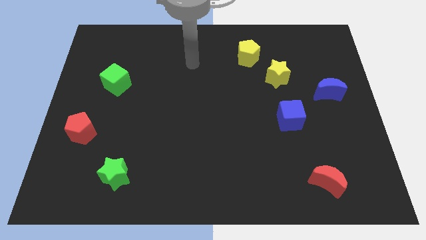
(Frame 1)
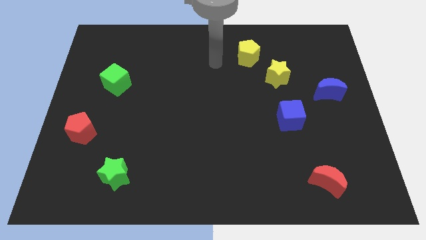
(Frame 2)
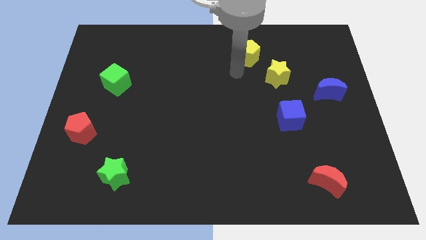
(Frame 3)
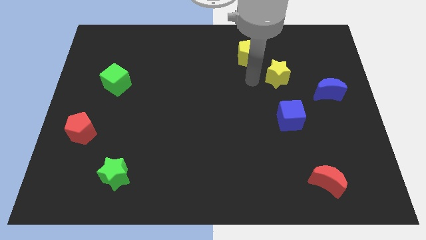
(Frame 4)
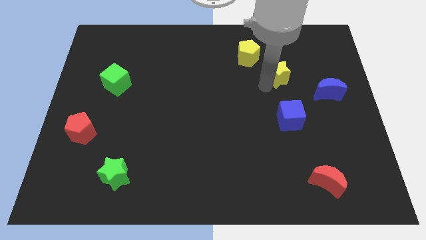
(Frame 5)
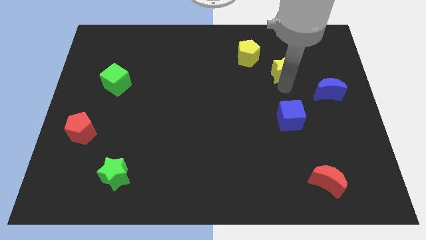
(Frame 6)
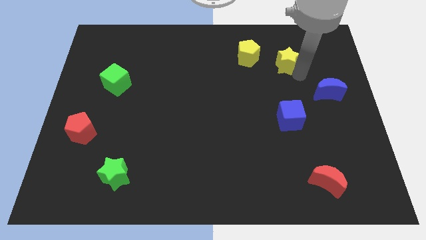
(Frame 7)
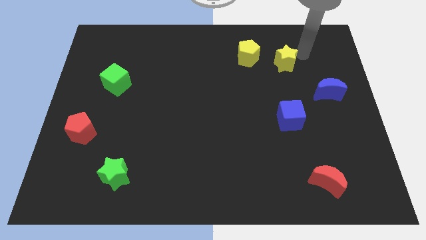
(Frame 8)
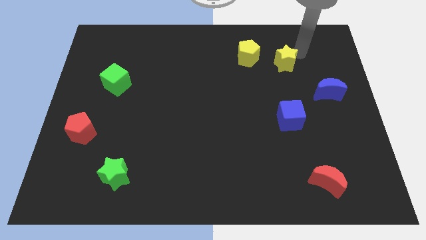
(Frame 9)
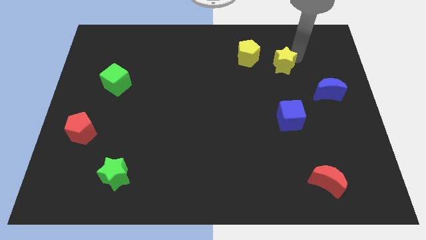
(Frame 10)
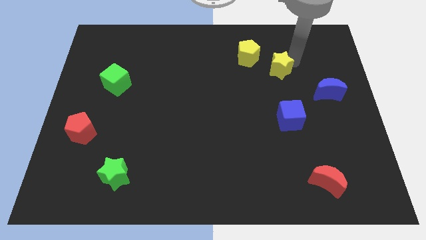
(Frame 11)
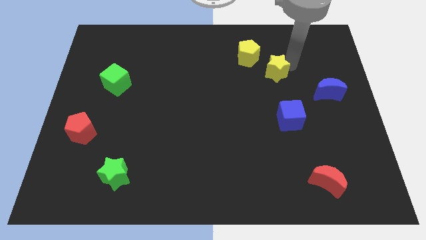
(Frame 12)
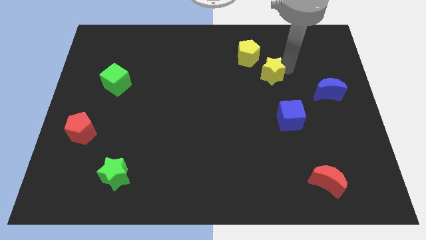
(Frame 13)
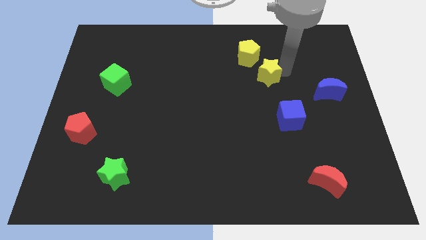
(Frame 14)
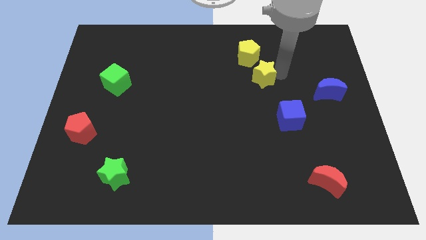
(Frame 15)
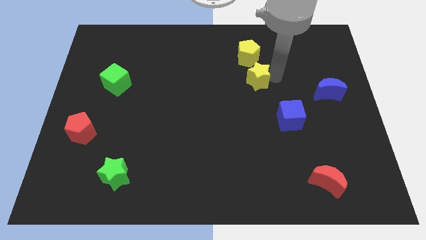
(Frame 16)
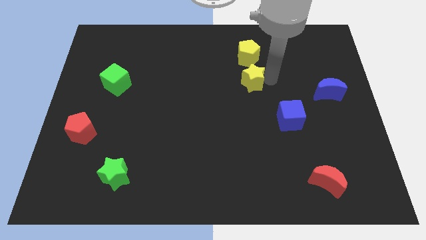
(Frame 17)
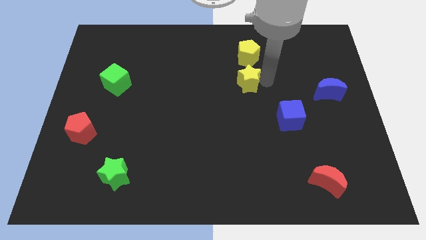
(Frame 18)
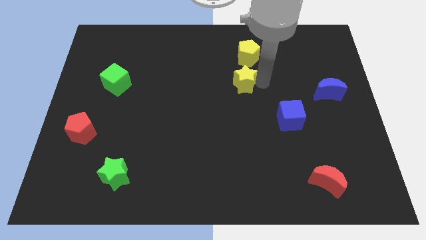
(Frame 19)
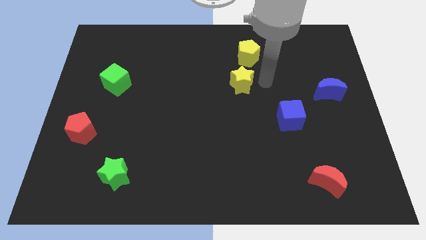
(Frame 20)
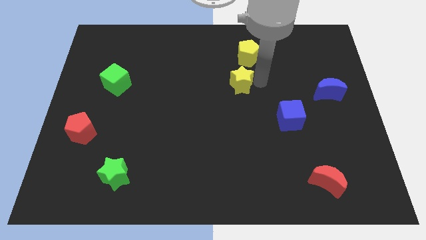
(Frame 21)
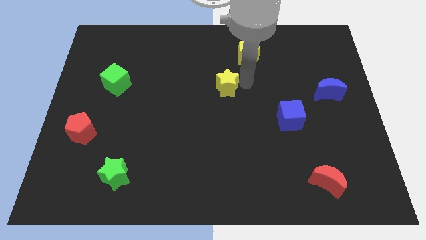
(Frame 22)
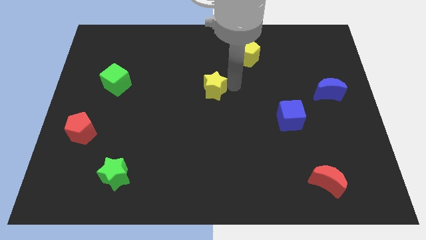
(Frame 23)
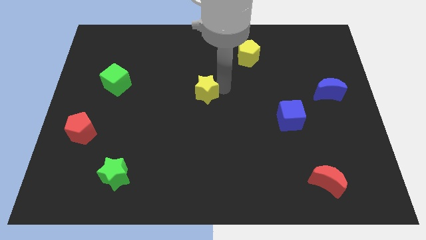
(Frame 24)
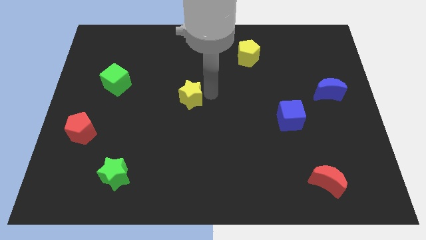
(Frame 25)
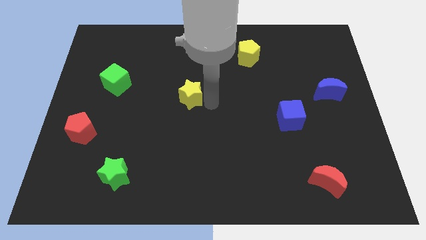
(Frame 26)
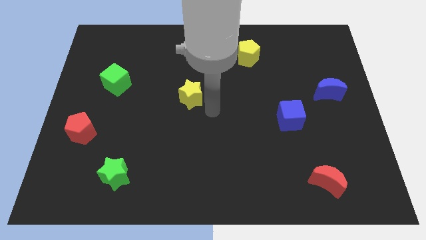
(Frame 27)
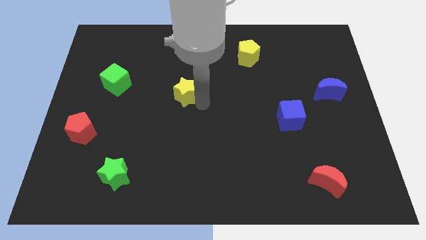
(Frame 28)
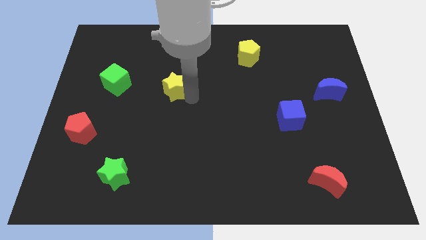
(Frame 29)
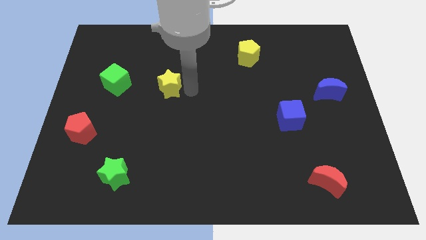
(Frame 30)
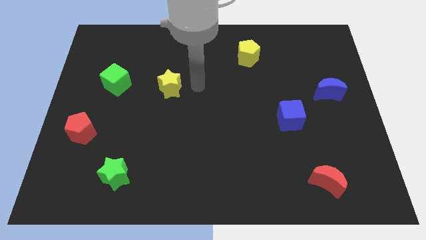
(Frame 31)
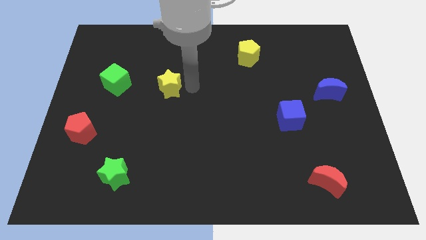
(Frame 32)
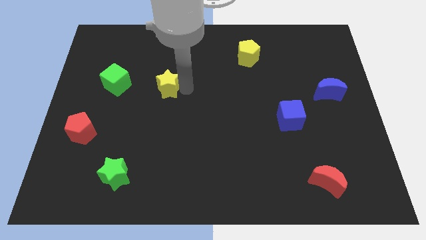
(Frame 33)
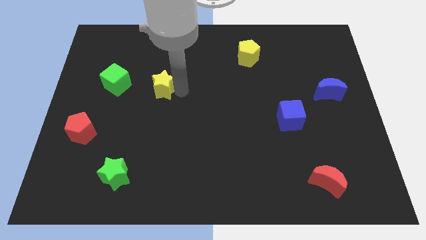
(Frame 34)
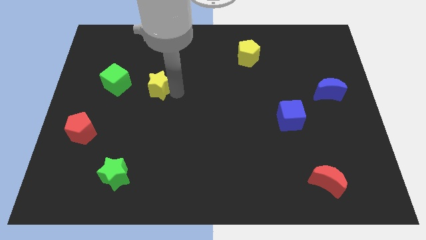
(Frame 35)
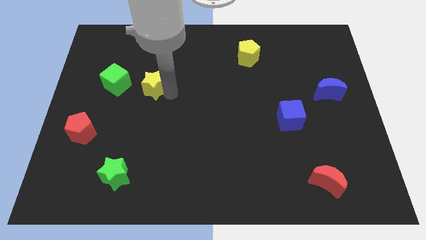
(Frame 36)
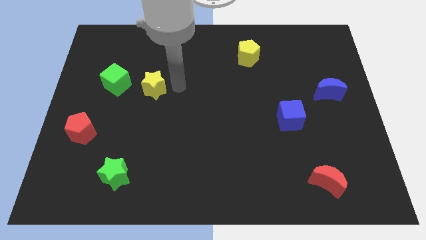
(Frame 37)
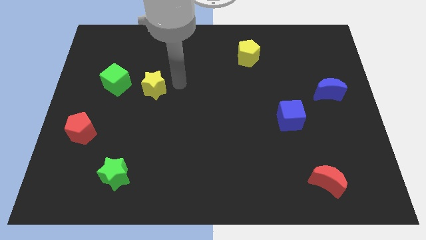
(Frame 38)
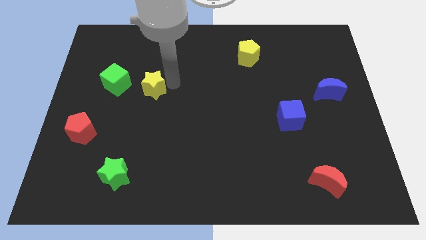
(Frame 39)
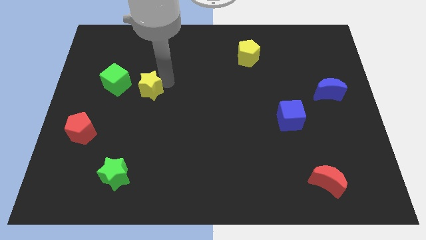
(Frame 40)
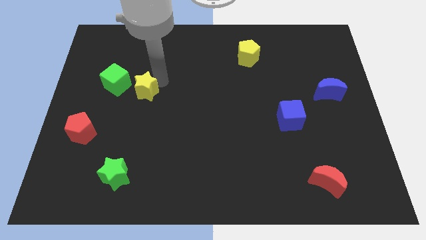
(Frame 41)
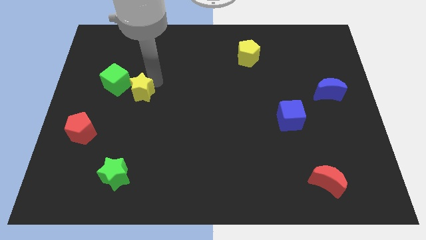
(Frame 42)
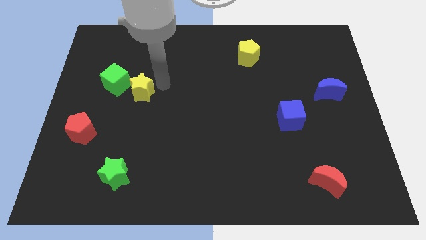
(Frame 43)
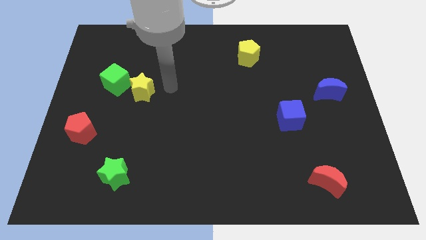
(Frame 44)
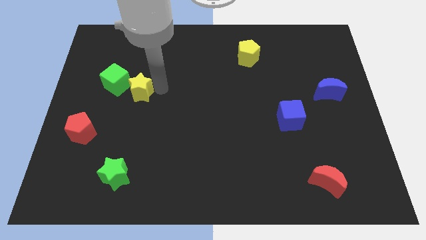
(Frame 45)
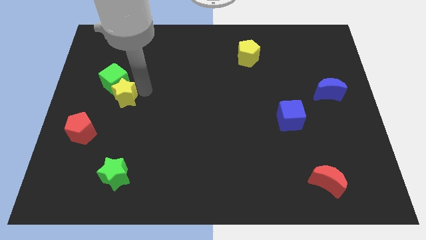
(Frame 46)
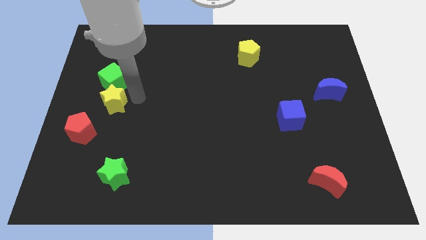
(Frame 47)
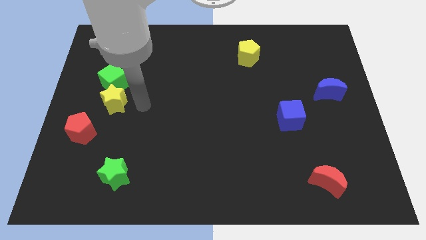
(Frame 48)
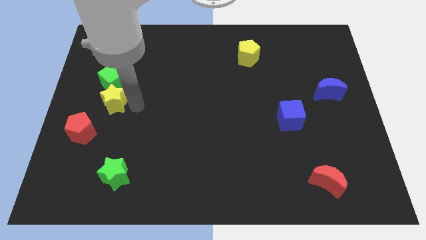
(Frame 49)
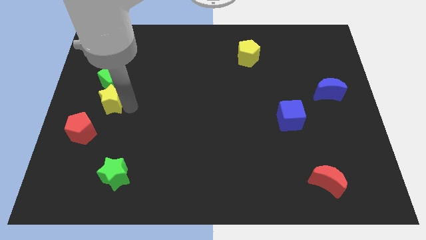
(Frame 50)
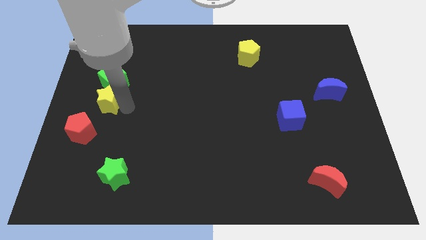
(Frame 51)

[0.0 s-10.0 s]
slide the yellow star to the bottom left of the green cube

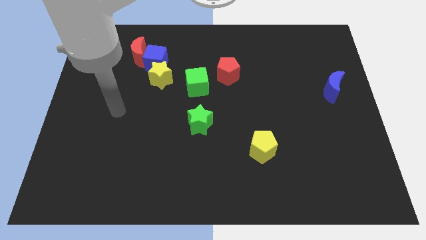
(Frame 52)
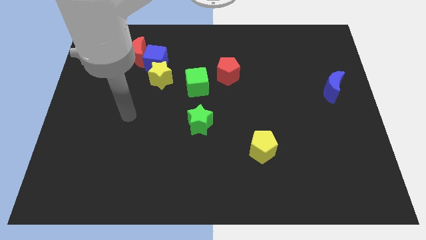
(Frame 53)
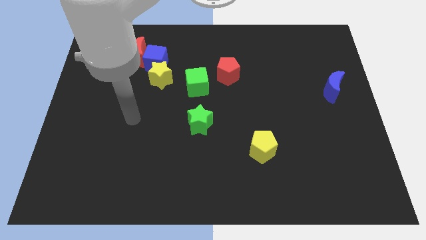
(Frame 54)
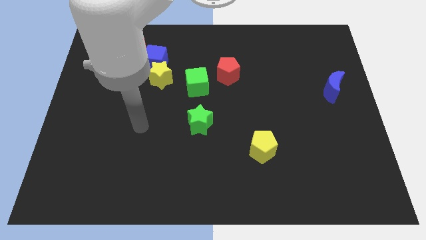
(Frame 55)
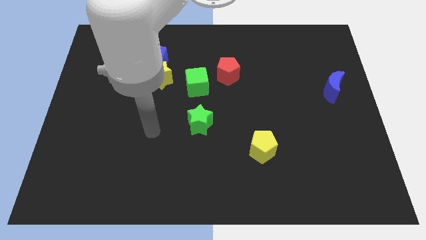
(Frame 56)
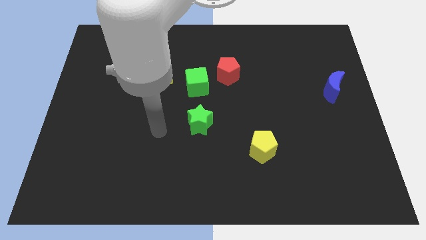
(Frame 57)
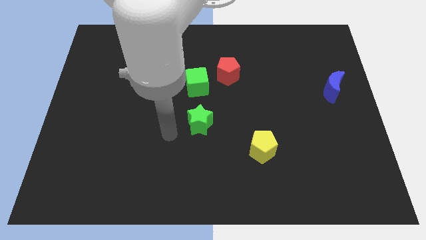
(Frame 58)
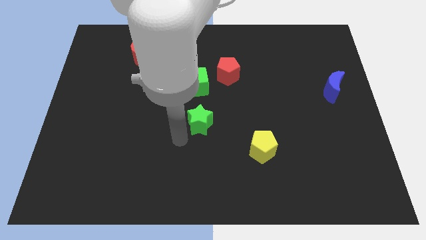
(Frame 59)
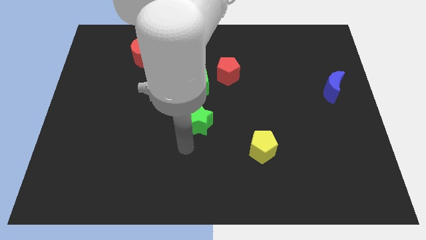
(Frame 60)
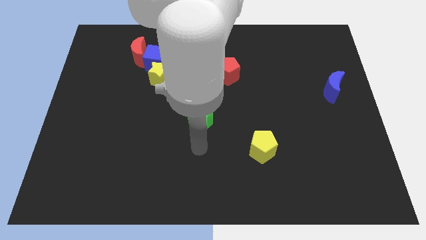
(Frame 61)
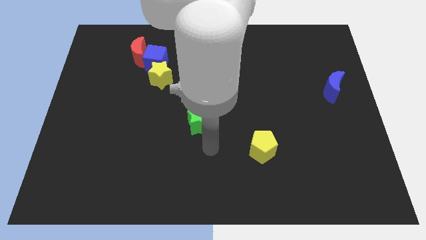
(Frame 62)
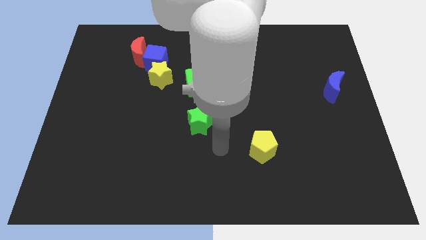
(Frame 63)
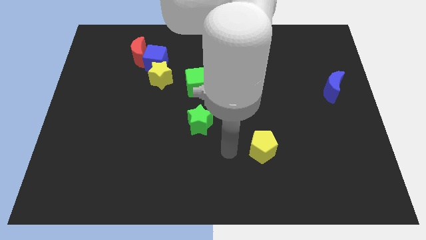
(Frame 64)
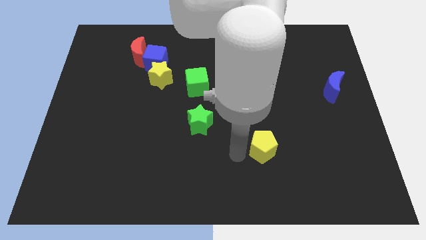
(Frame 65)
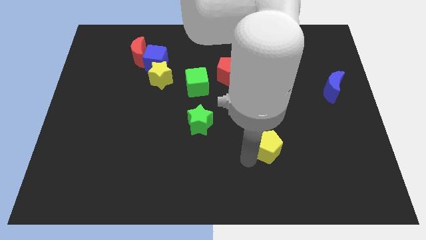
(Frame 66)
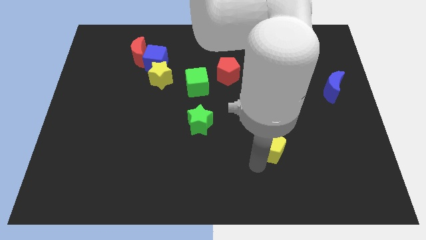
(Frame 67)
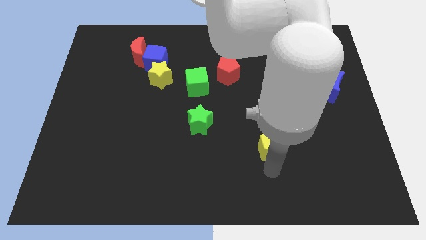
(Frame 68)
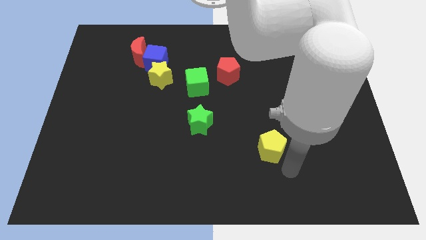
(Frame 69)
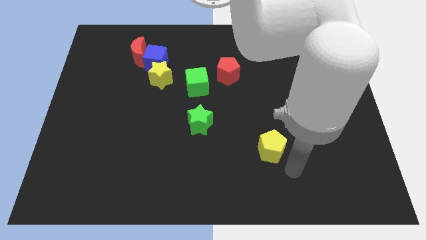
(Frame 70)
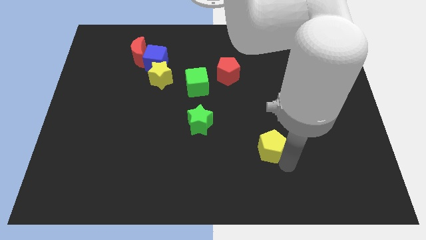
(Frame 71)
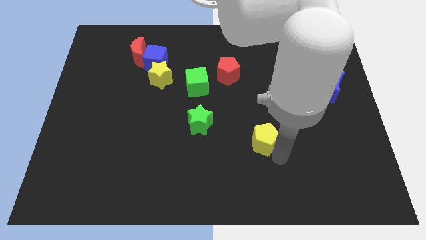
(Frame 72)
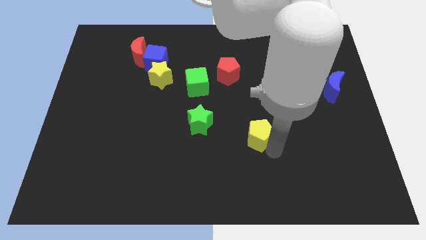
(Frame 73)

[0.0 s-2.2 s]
move the yellow pentagon to the right of the green star

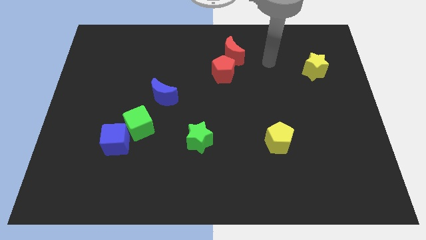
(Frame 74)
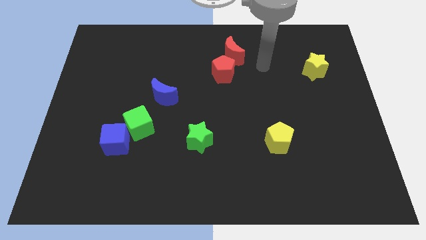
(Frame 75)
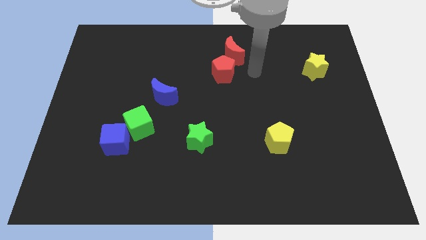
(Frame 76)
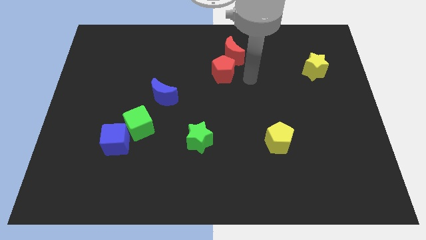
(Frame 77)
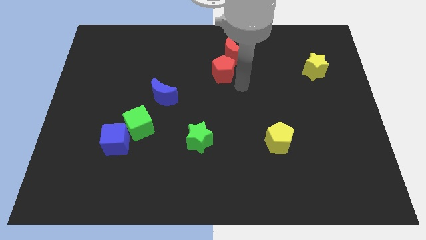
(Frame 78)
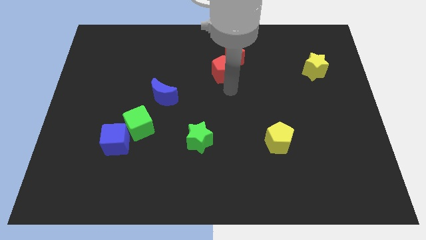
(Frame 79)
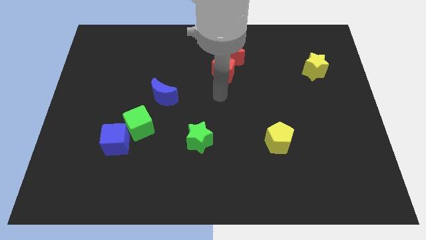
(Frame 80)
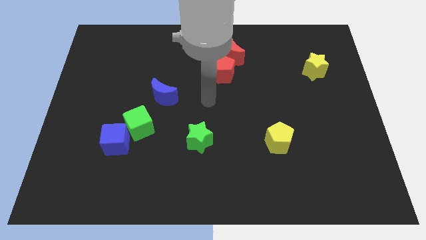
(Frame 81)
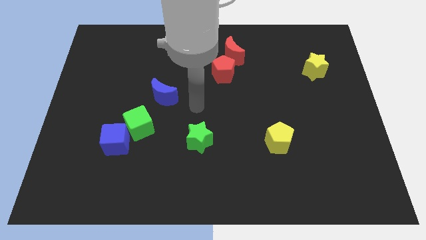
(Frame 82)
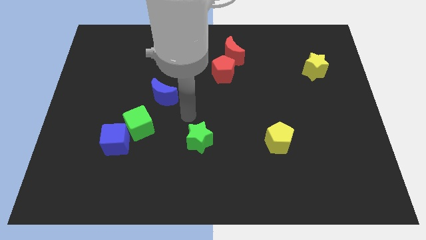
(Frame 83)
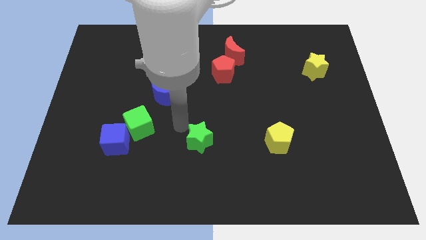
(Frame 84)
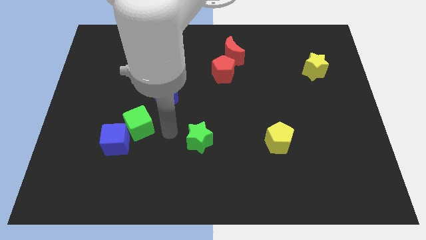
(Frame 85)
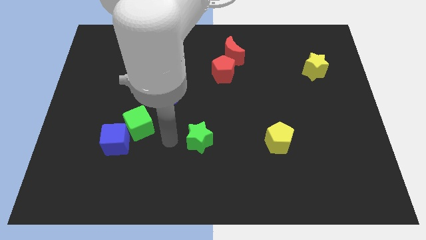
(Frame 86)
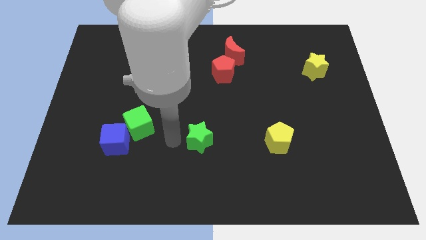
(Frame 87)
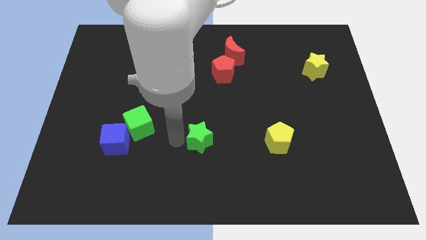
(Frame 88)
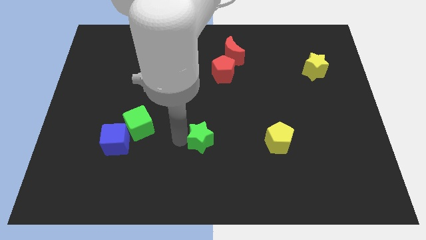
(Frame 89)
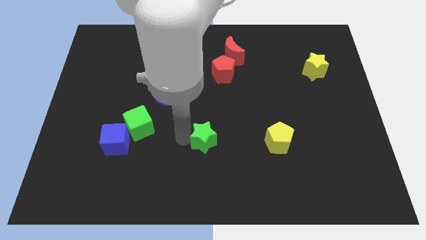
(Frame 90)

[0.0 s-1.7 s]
slide the green star to the left side of the yellow pentagon
